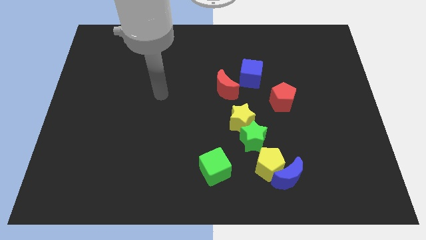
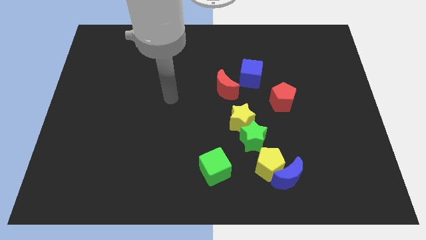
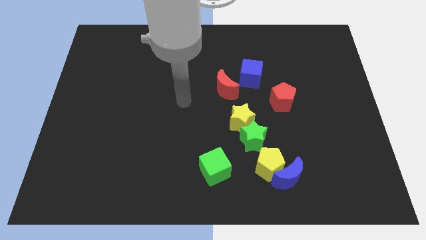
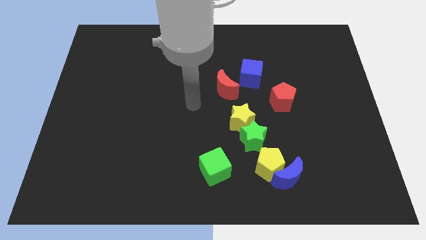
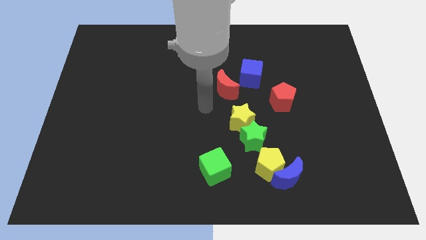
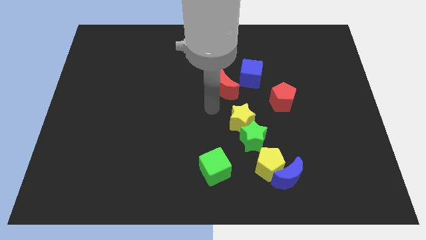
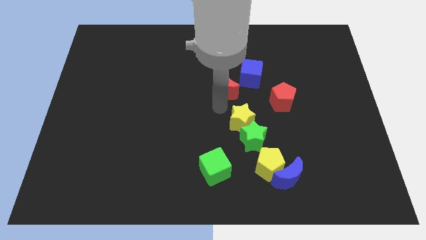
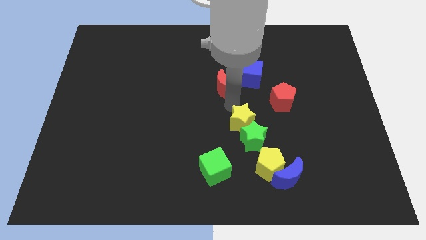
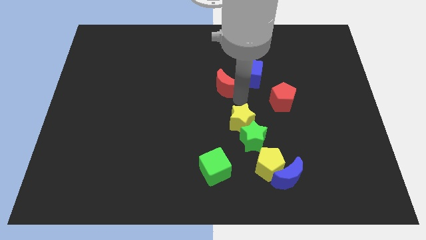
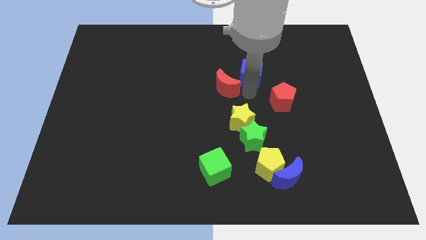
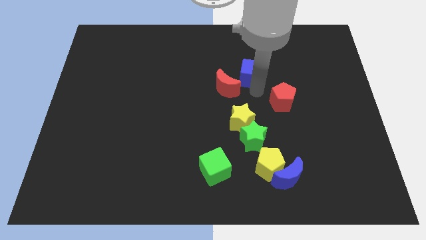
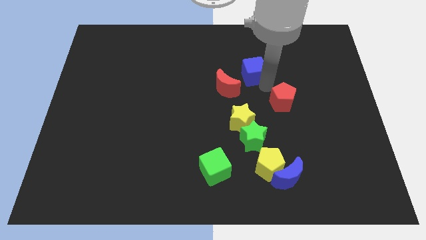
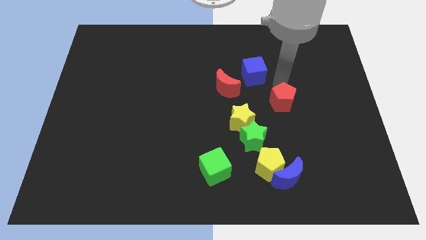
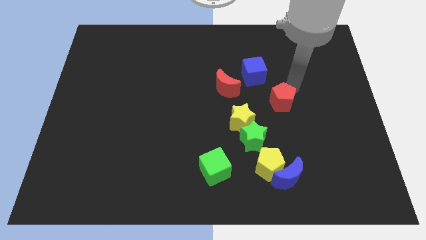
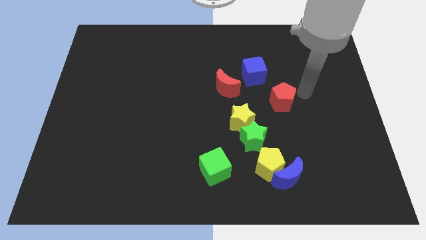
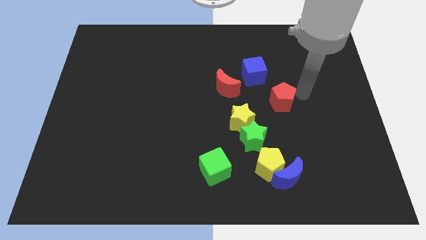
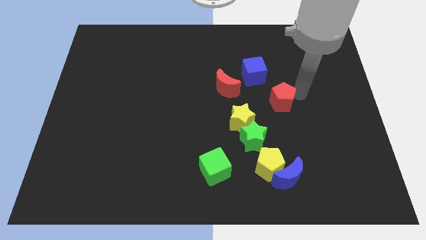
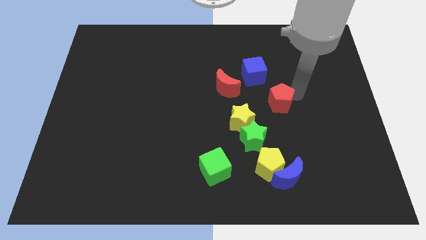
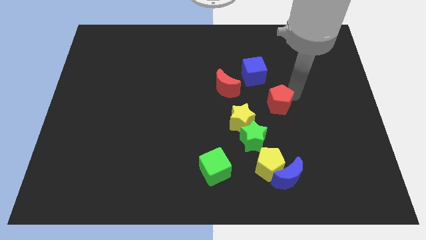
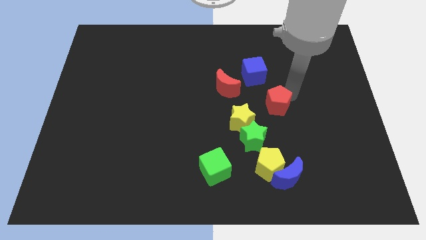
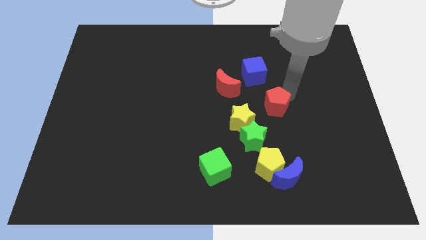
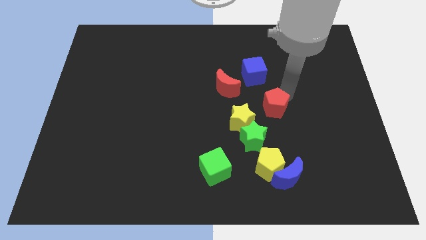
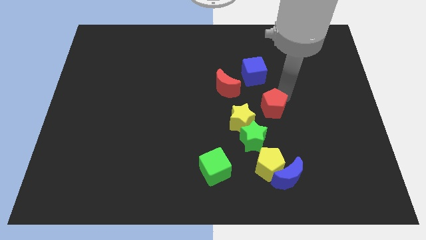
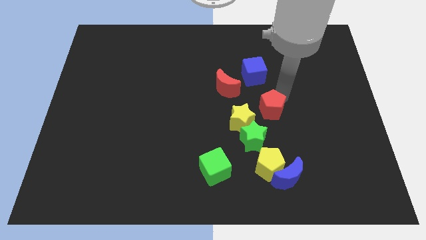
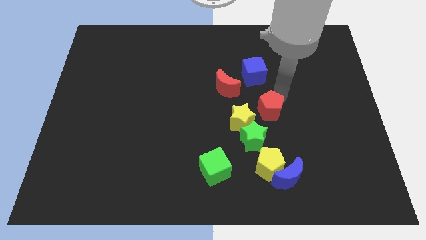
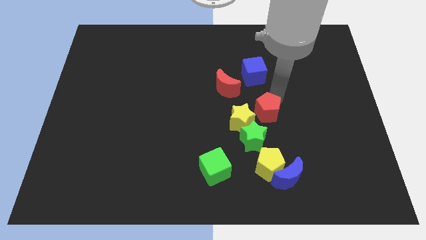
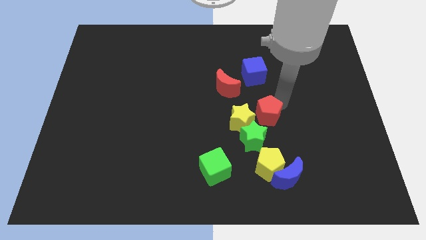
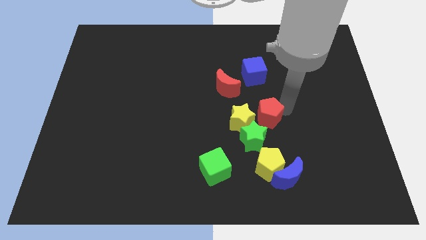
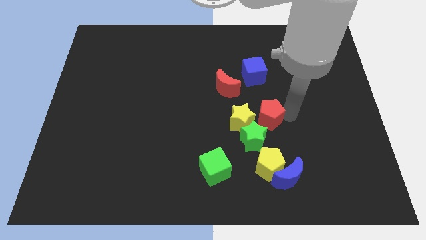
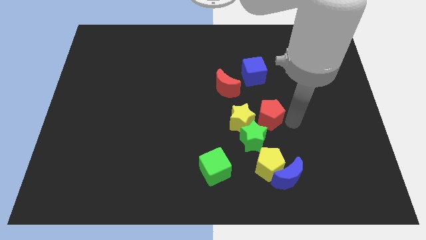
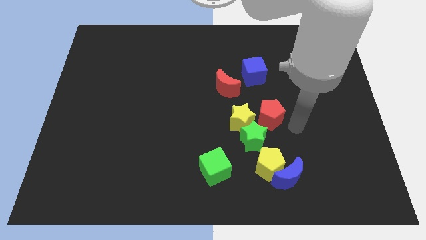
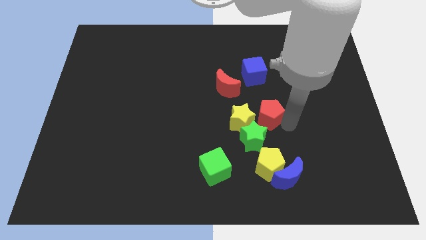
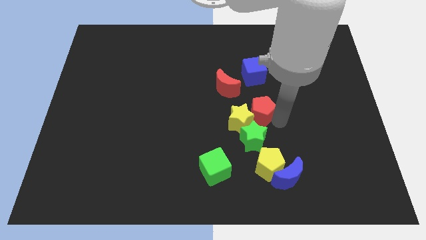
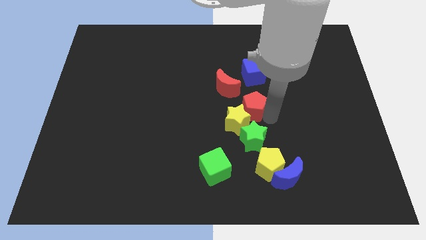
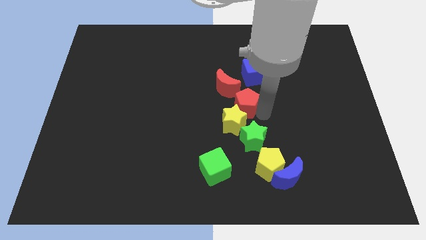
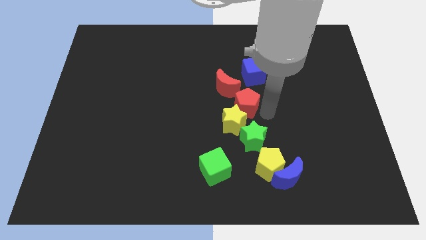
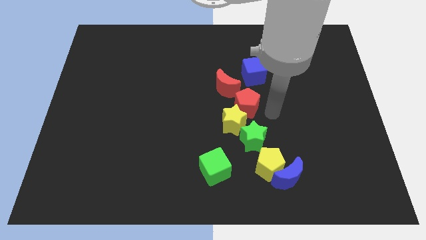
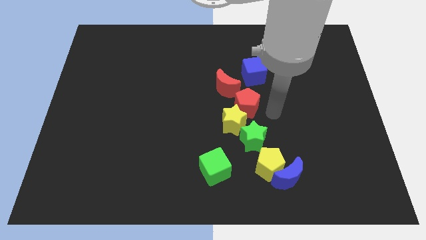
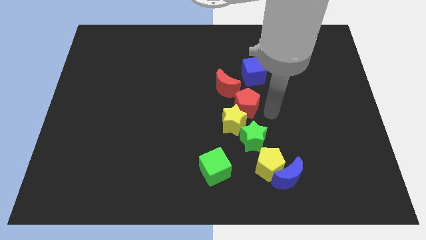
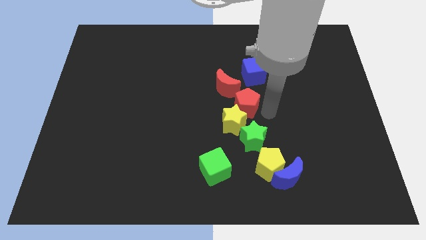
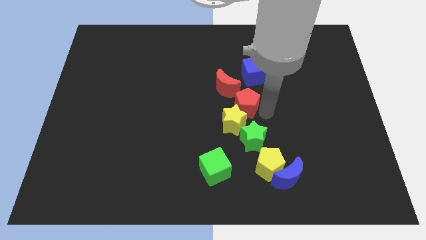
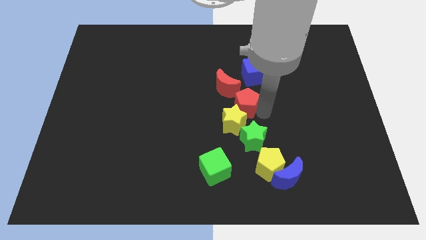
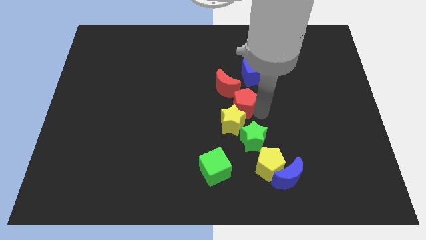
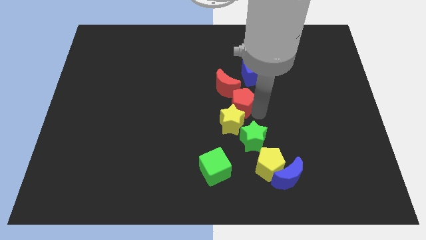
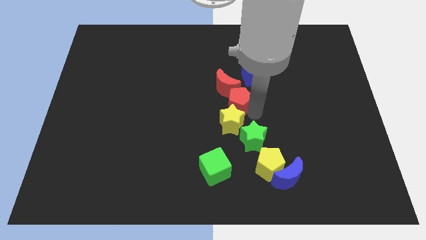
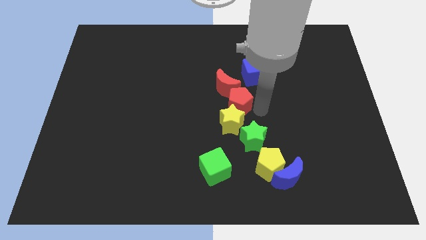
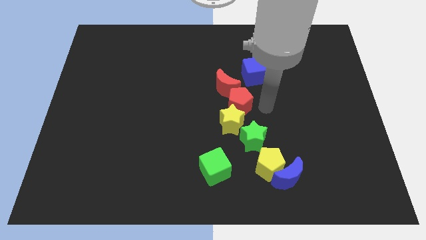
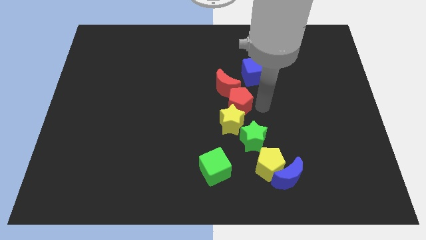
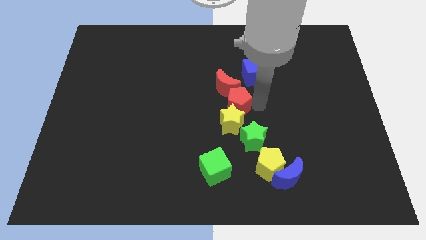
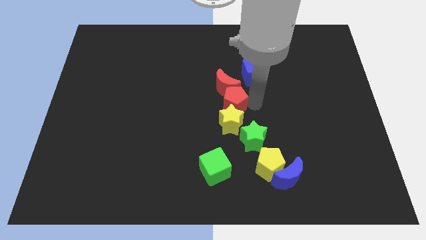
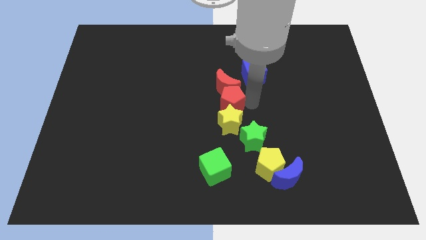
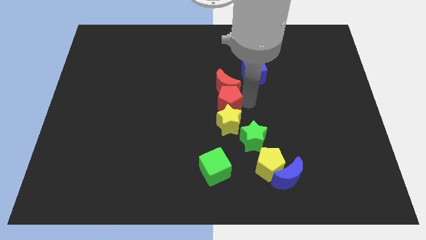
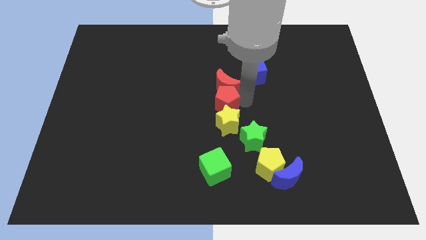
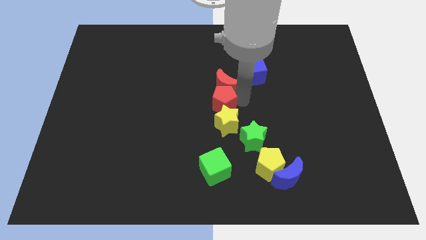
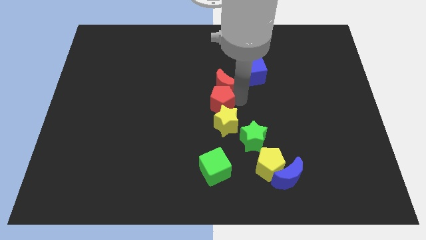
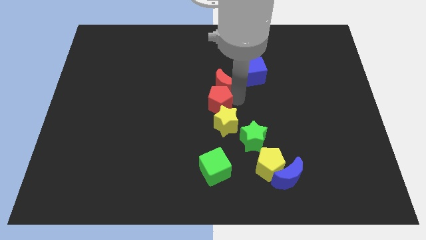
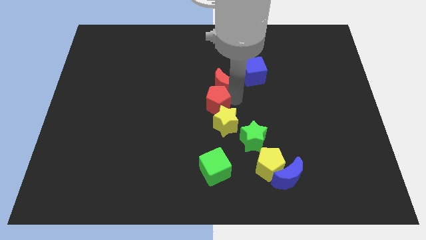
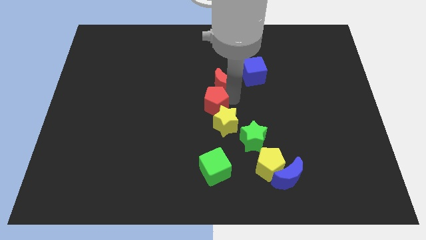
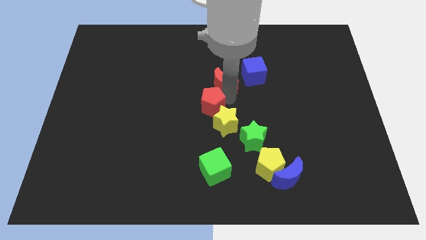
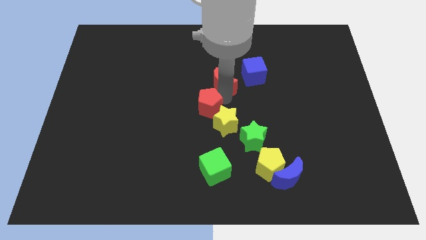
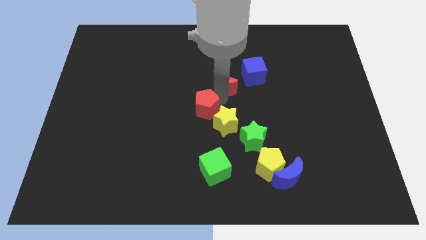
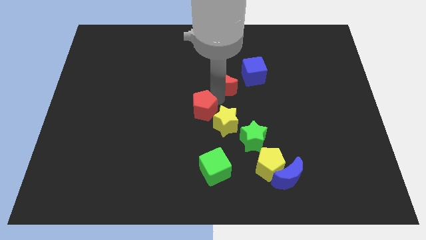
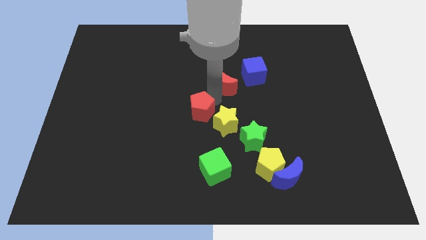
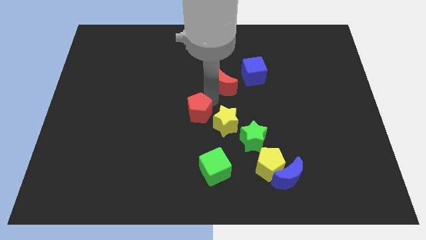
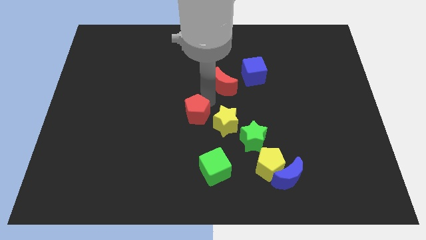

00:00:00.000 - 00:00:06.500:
slide the red pentagon left

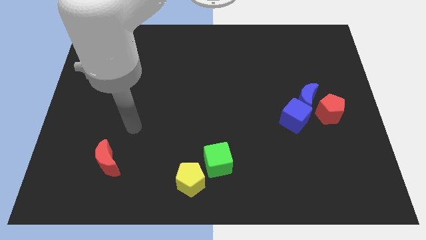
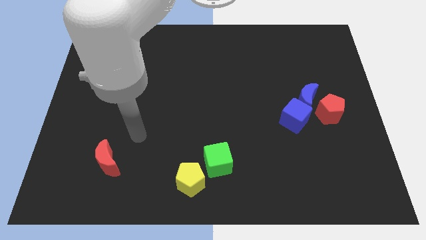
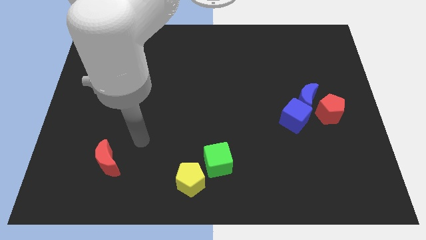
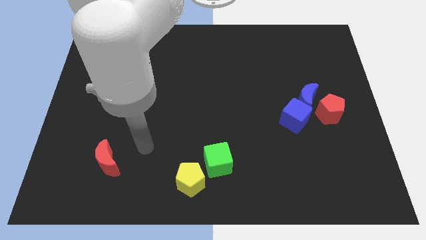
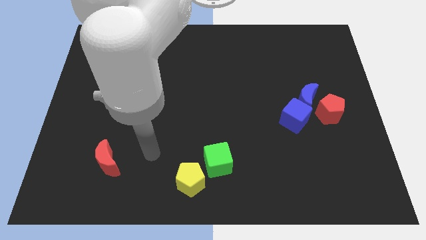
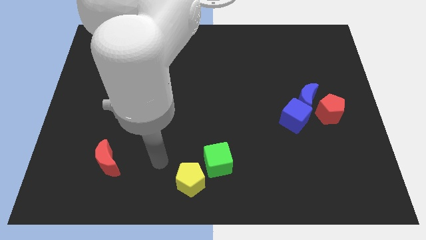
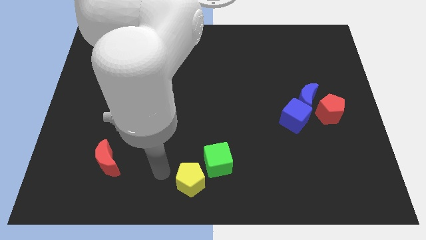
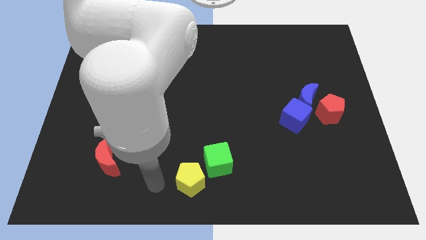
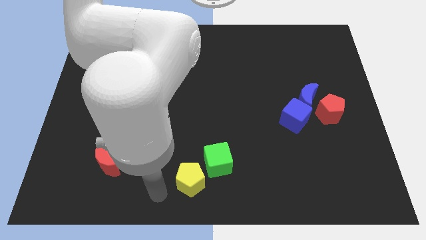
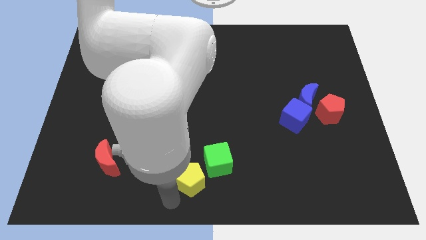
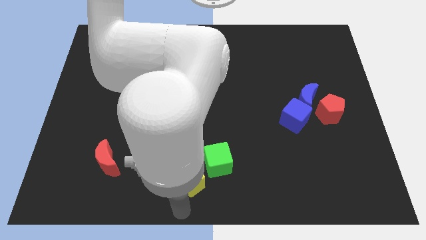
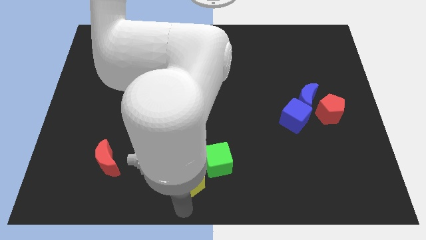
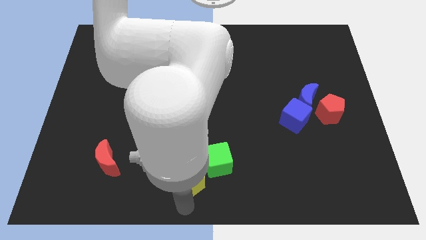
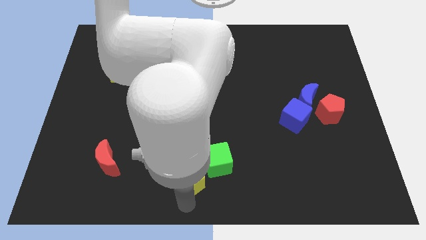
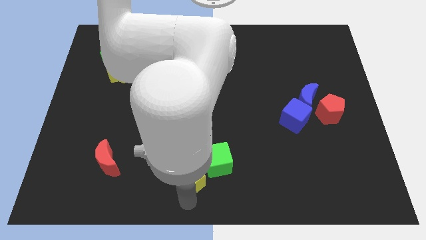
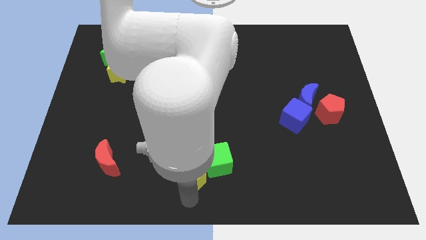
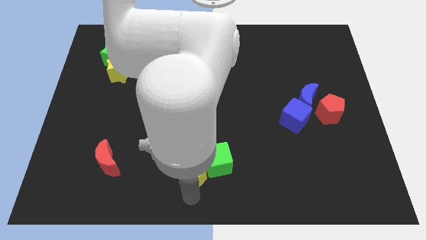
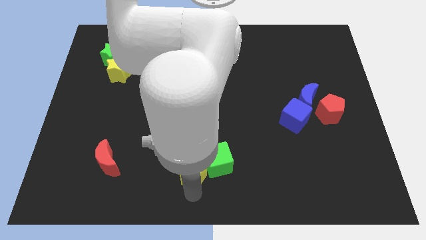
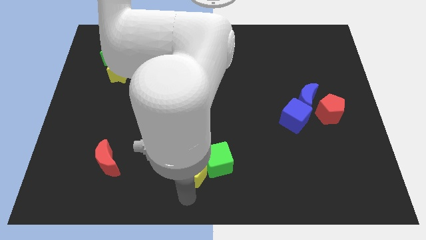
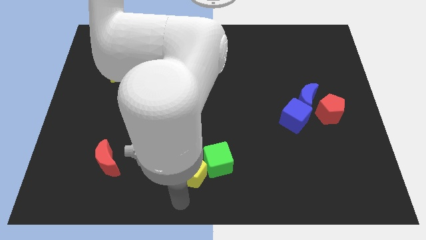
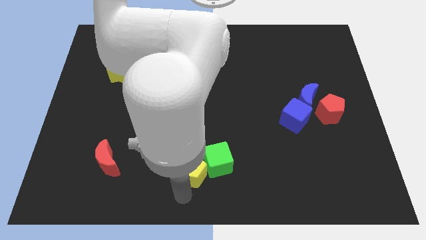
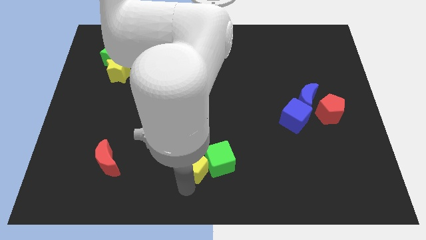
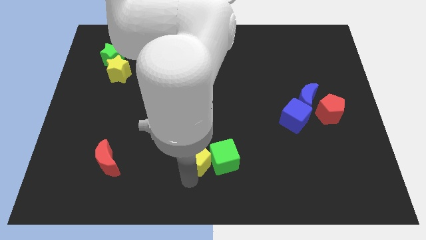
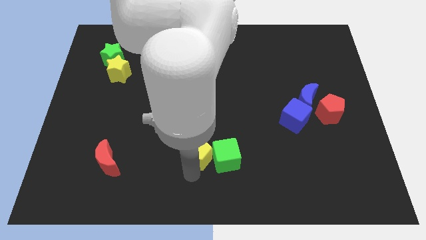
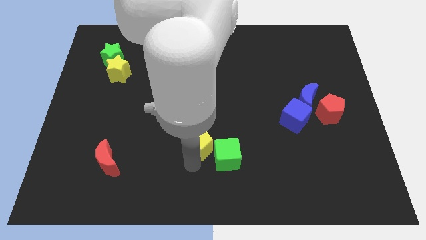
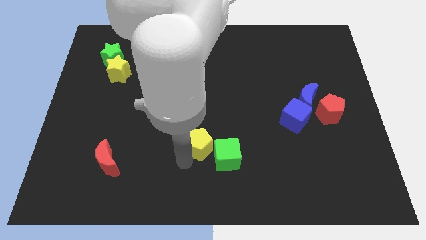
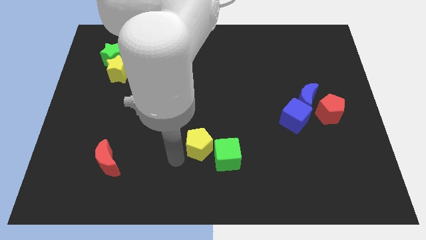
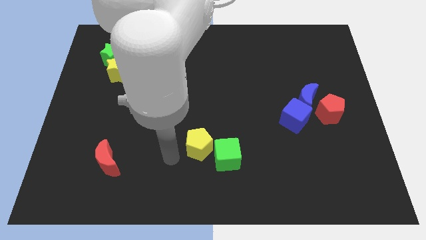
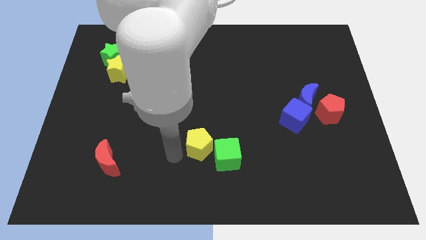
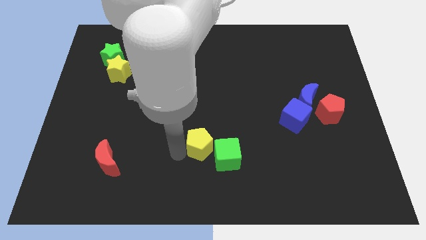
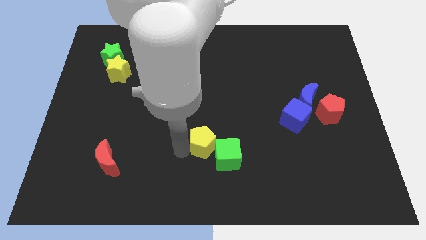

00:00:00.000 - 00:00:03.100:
move the yellow pentagon a little up and right
